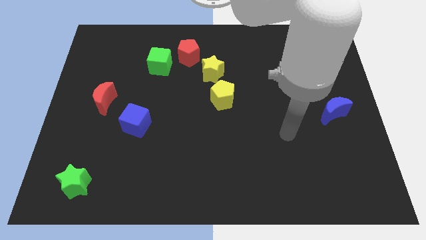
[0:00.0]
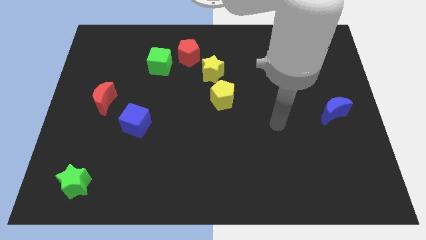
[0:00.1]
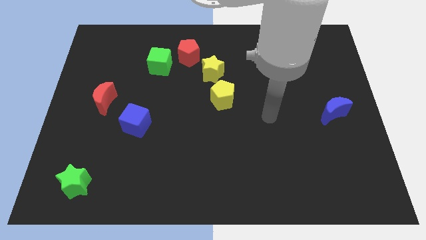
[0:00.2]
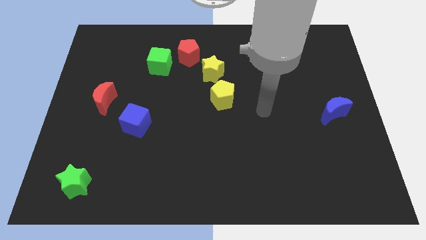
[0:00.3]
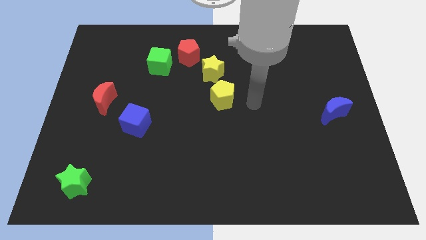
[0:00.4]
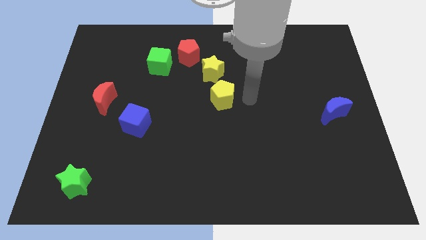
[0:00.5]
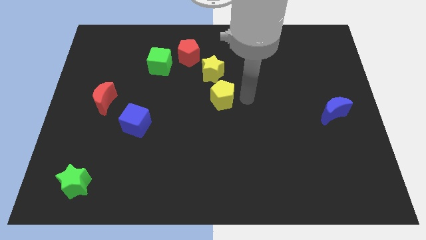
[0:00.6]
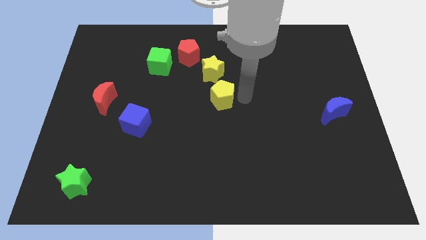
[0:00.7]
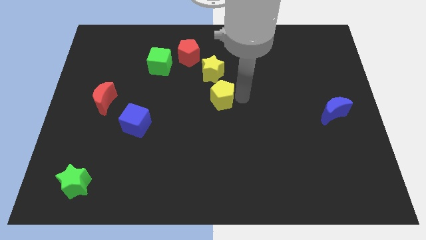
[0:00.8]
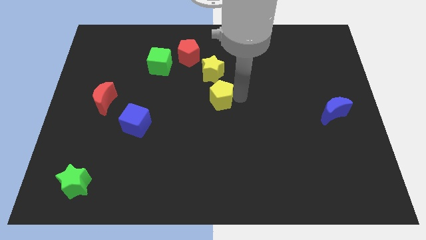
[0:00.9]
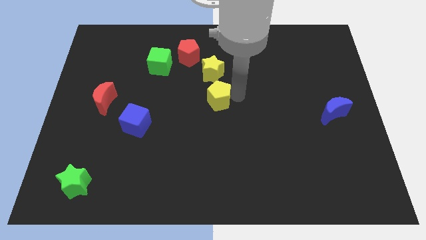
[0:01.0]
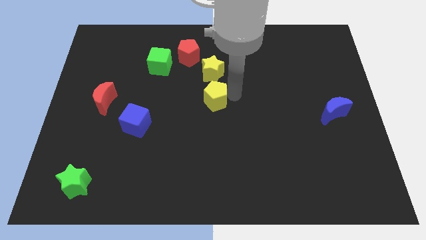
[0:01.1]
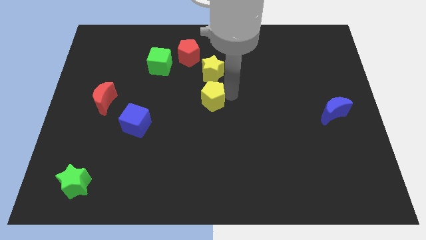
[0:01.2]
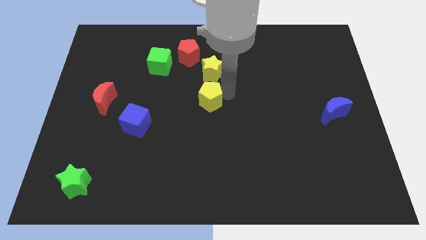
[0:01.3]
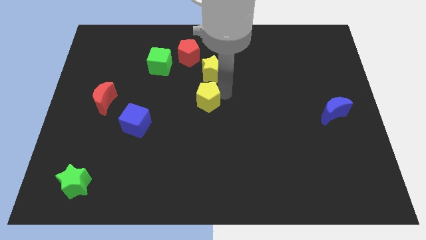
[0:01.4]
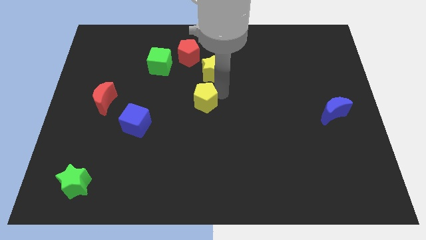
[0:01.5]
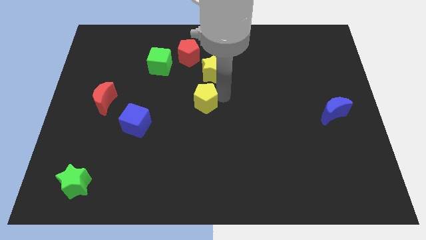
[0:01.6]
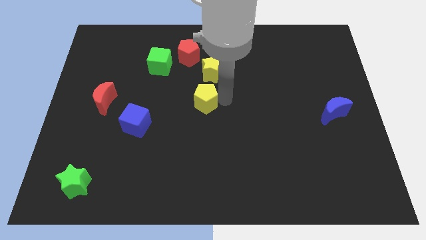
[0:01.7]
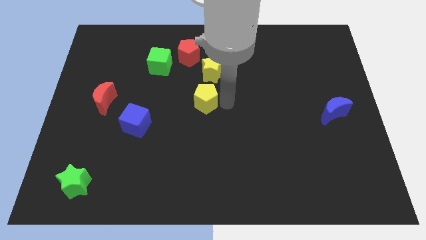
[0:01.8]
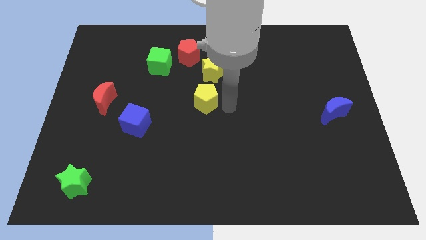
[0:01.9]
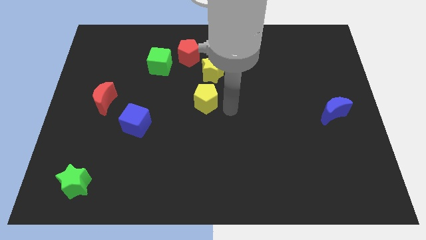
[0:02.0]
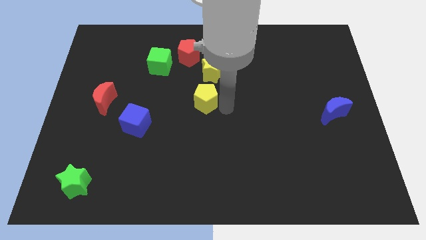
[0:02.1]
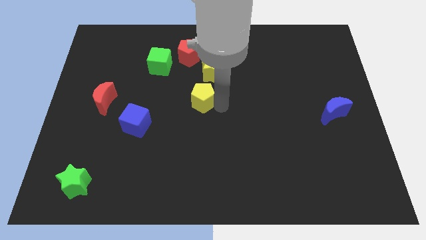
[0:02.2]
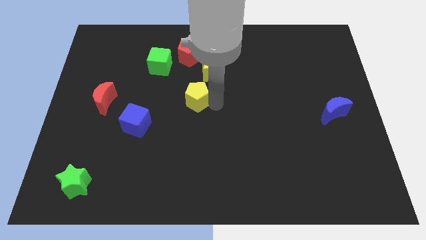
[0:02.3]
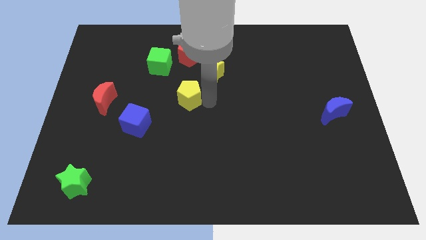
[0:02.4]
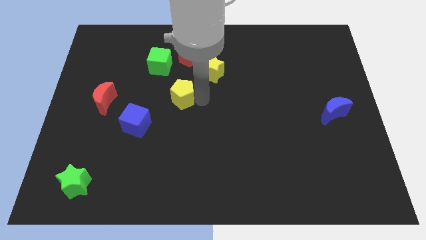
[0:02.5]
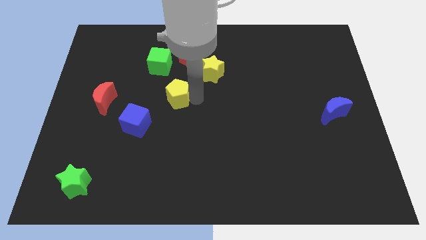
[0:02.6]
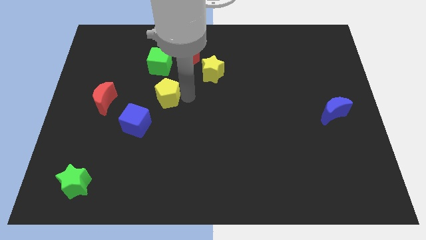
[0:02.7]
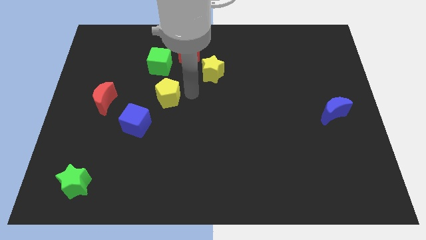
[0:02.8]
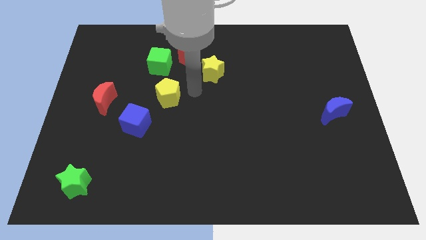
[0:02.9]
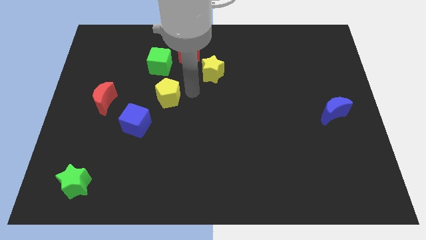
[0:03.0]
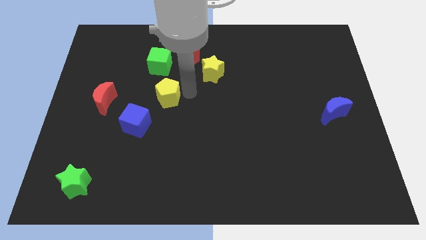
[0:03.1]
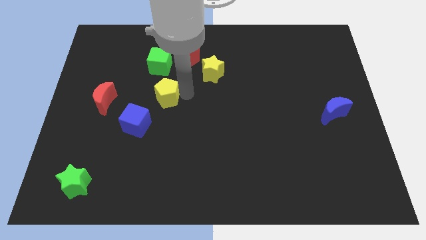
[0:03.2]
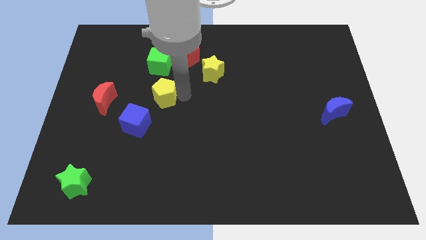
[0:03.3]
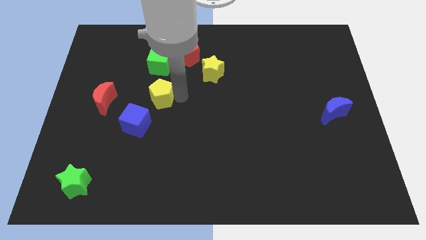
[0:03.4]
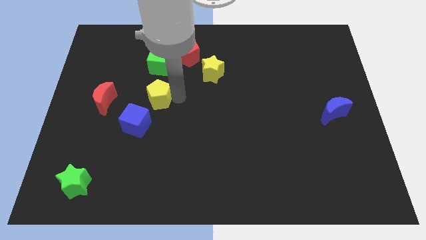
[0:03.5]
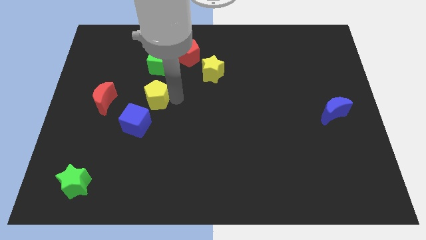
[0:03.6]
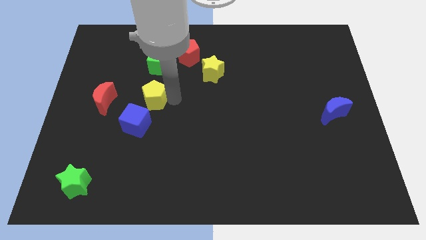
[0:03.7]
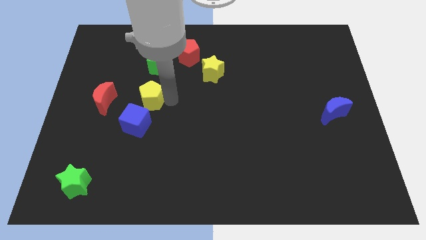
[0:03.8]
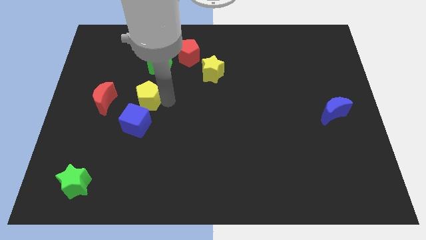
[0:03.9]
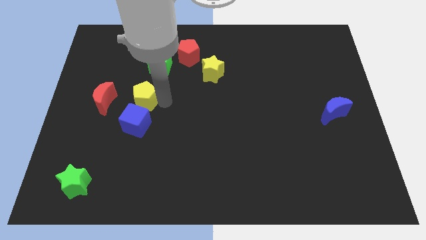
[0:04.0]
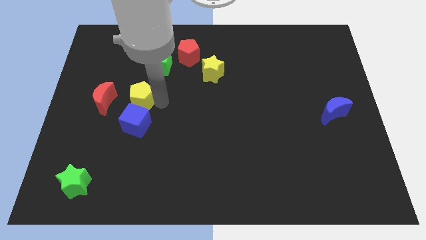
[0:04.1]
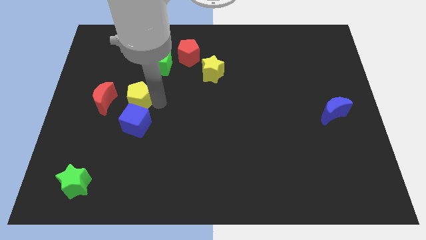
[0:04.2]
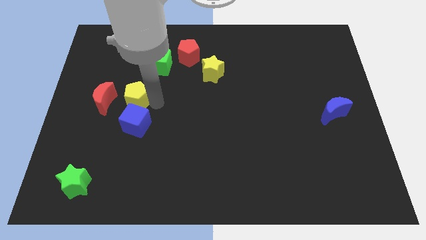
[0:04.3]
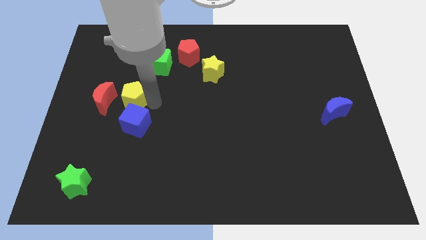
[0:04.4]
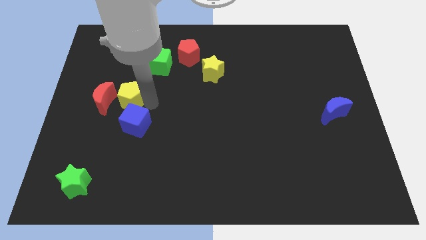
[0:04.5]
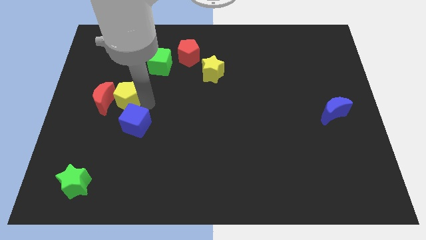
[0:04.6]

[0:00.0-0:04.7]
slide the yellow pentagon to the red moon

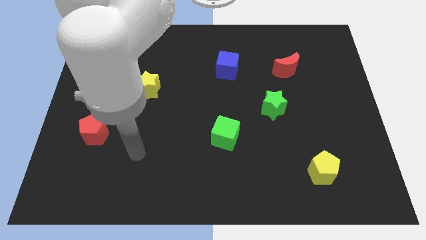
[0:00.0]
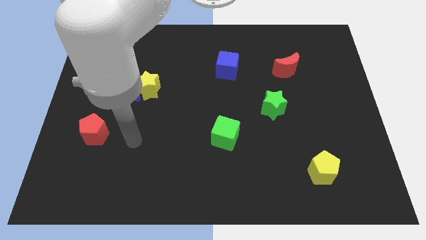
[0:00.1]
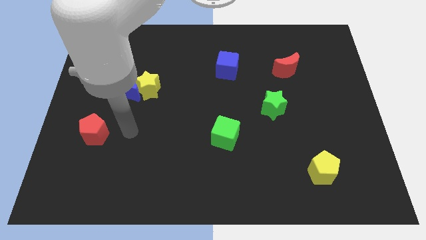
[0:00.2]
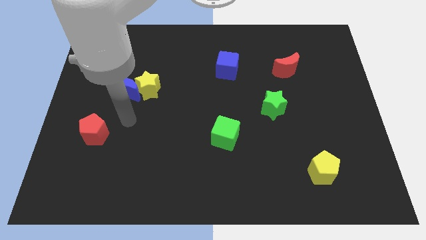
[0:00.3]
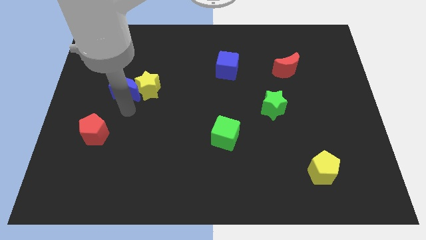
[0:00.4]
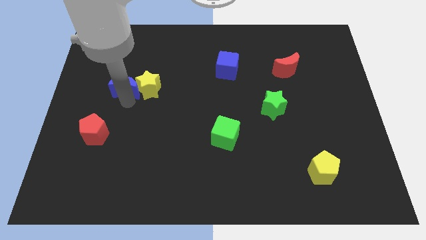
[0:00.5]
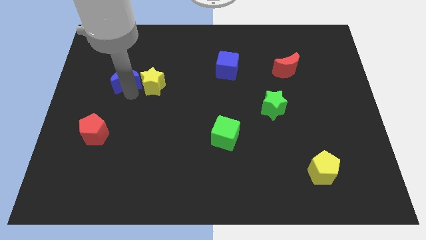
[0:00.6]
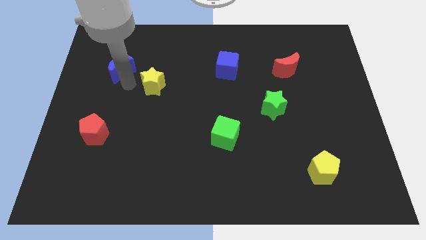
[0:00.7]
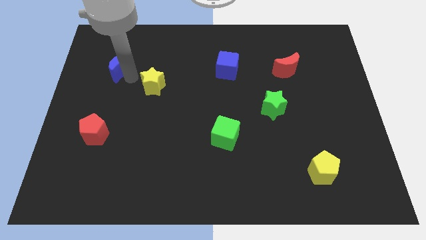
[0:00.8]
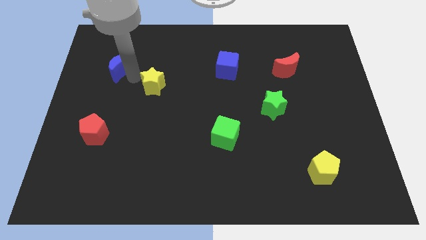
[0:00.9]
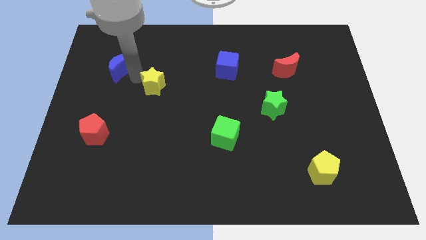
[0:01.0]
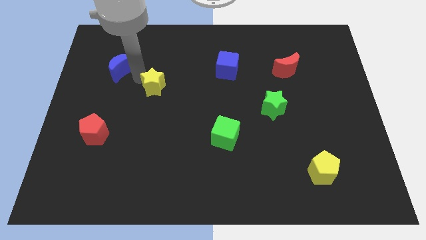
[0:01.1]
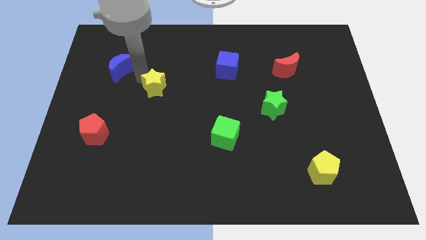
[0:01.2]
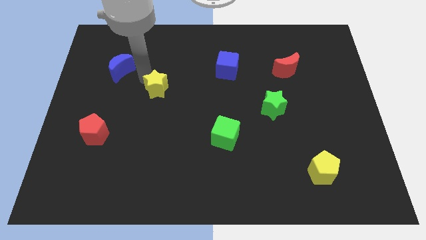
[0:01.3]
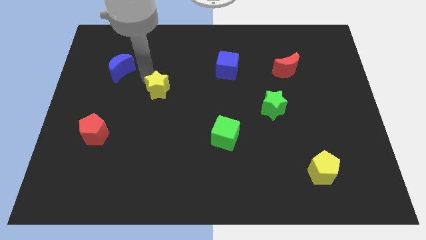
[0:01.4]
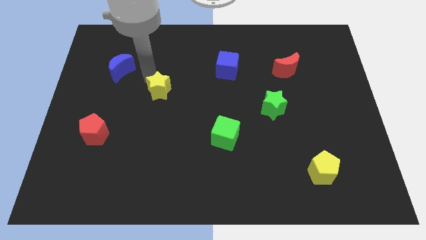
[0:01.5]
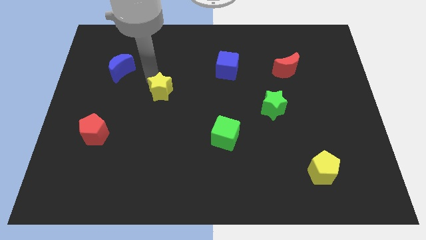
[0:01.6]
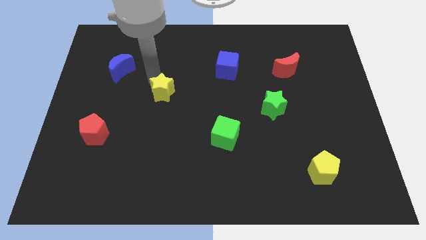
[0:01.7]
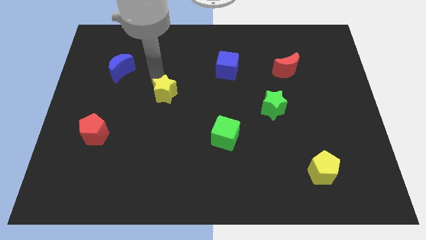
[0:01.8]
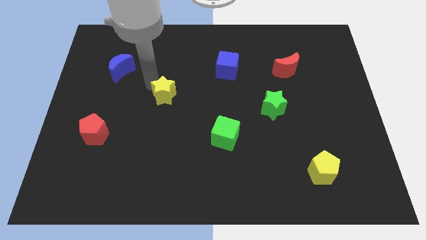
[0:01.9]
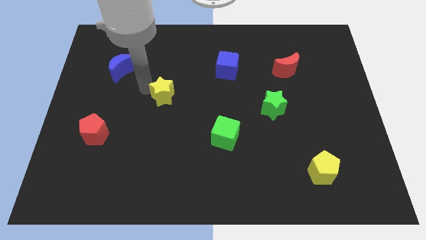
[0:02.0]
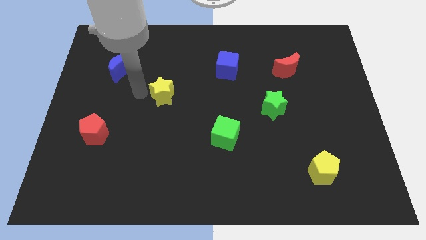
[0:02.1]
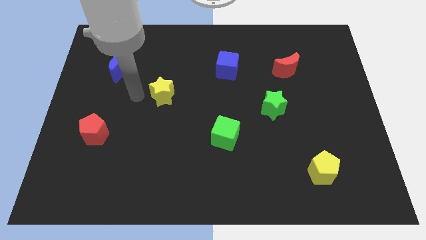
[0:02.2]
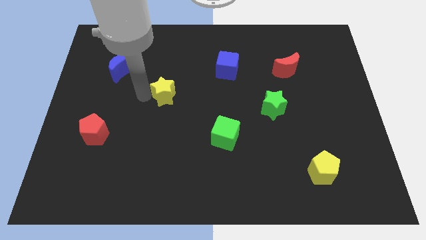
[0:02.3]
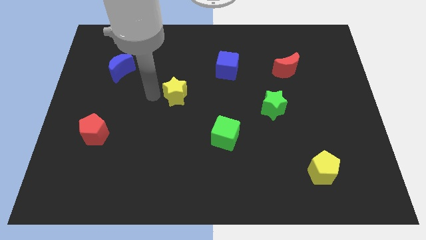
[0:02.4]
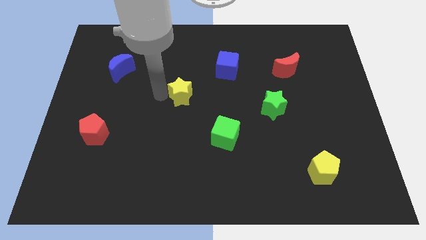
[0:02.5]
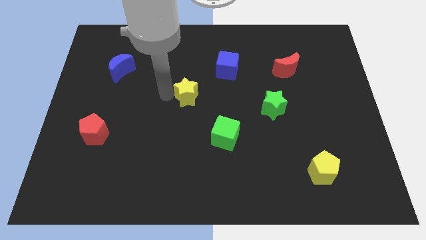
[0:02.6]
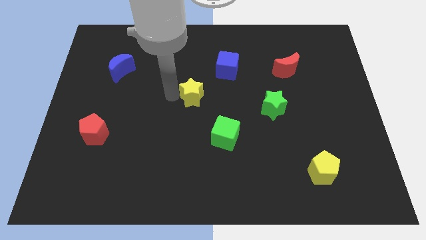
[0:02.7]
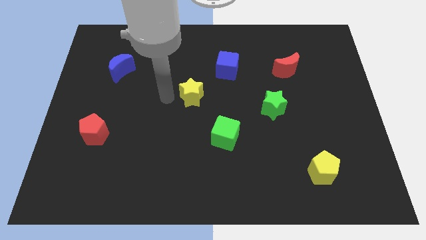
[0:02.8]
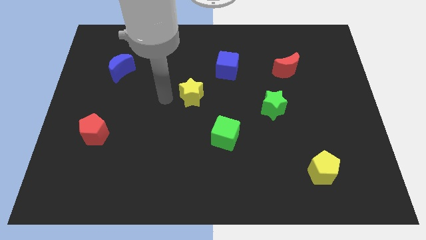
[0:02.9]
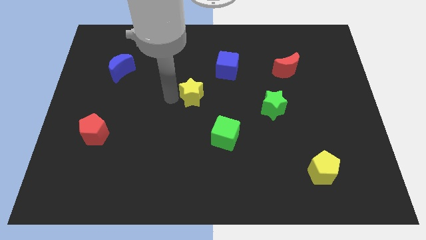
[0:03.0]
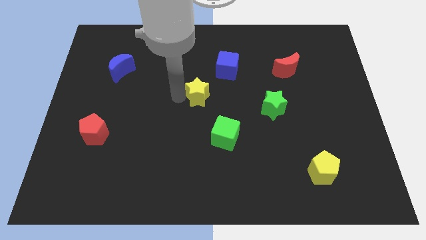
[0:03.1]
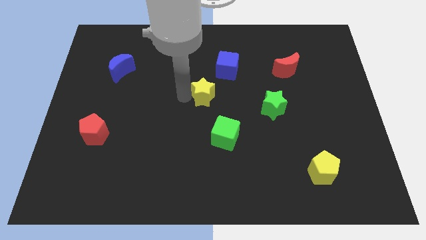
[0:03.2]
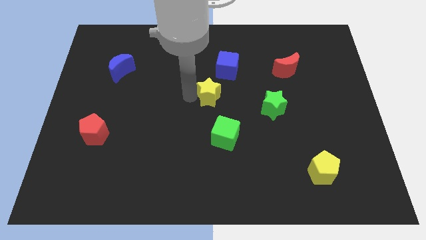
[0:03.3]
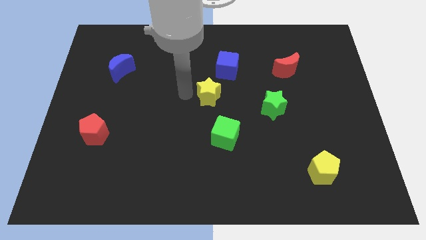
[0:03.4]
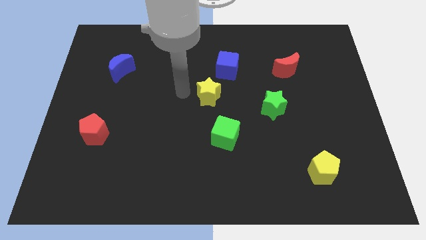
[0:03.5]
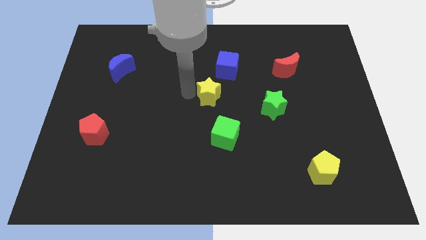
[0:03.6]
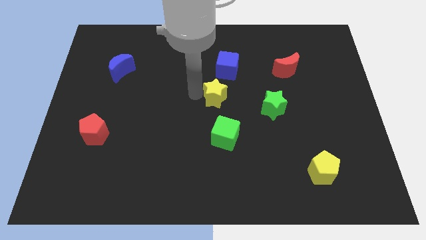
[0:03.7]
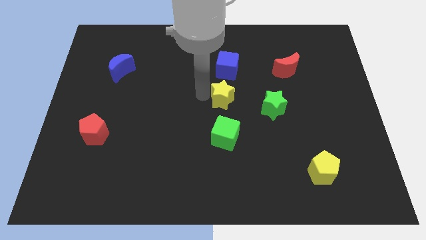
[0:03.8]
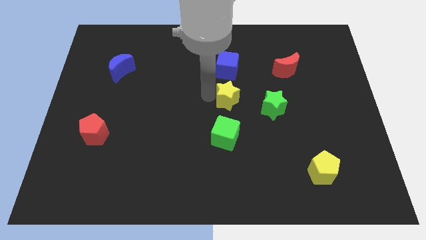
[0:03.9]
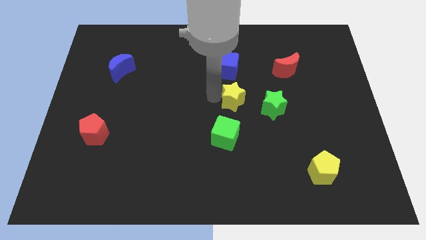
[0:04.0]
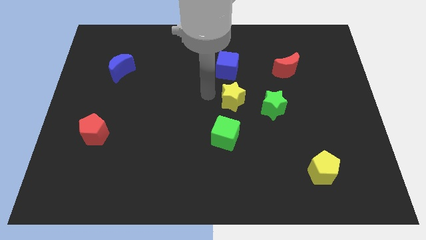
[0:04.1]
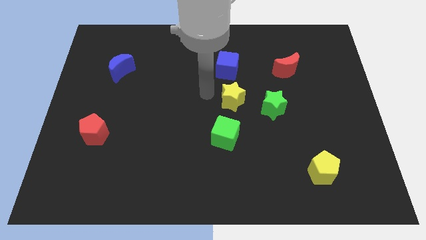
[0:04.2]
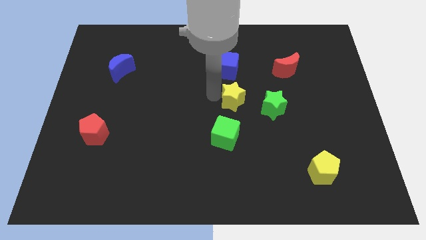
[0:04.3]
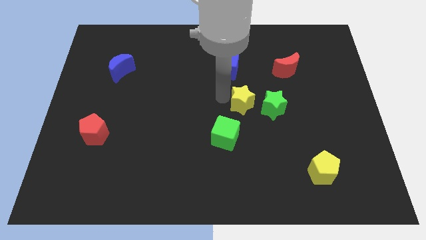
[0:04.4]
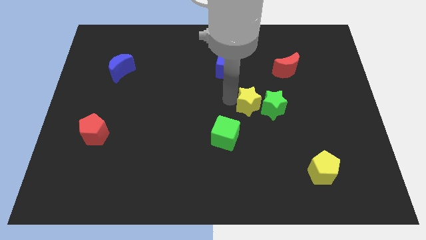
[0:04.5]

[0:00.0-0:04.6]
slide the yellow star to the green star
